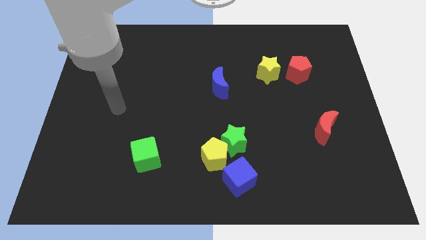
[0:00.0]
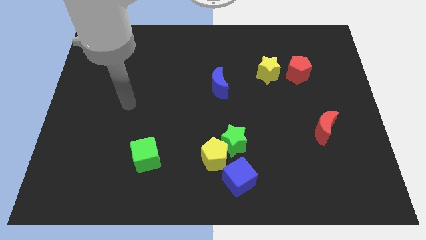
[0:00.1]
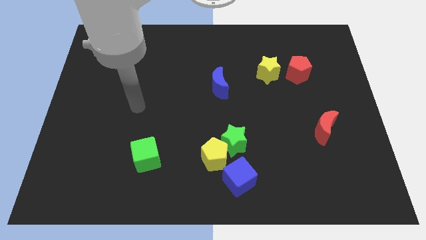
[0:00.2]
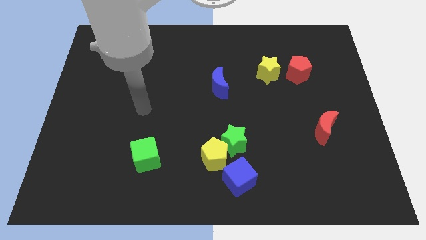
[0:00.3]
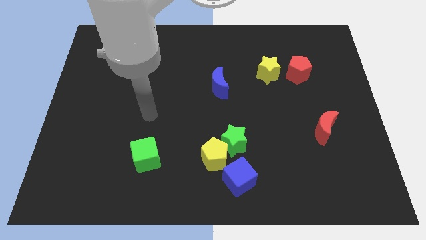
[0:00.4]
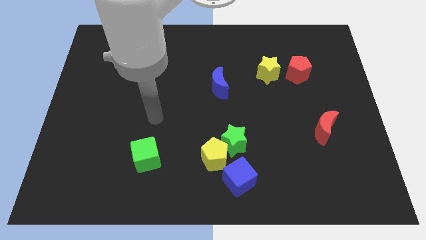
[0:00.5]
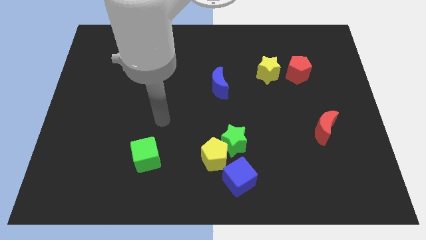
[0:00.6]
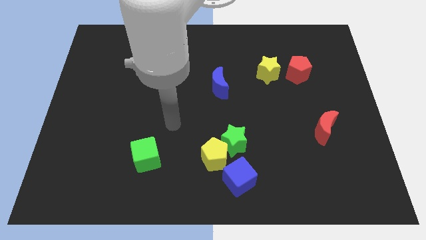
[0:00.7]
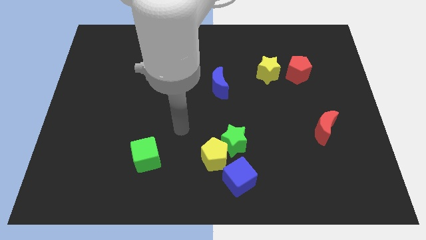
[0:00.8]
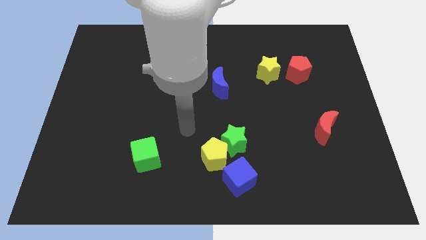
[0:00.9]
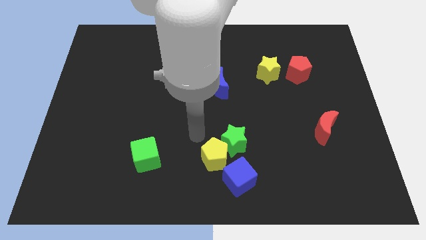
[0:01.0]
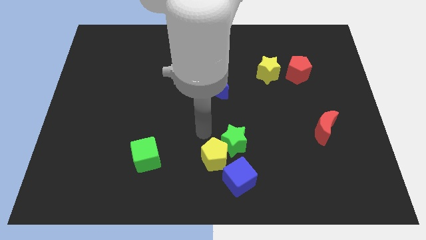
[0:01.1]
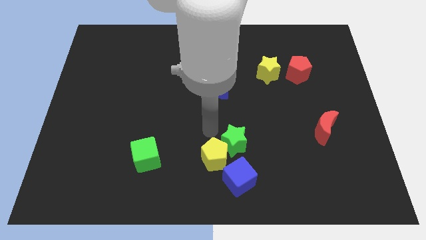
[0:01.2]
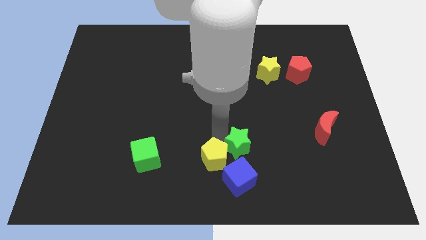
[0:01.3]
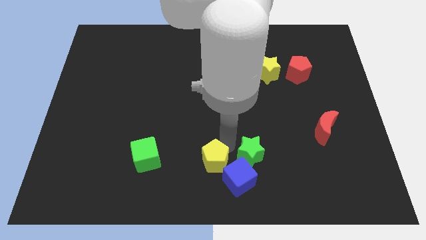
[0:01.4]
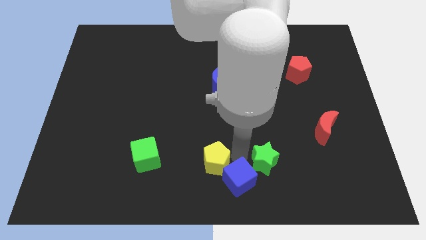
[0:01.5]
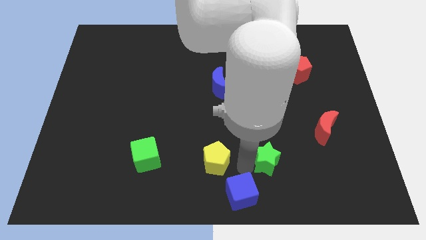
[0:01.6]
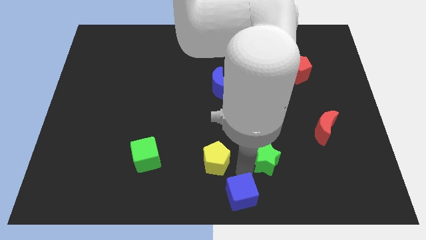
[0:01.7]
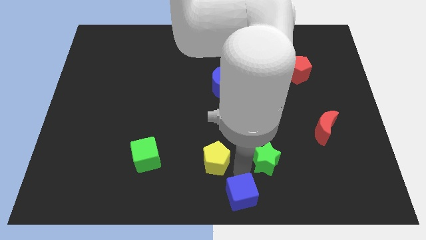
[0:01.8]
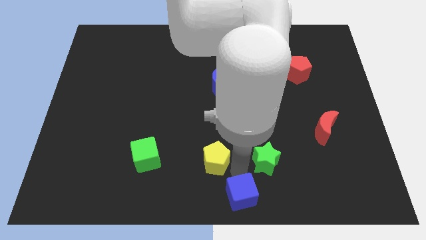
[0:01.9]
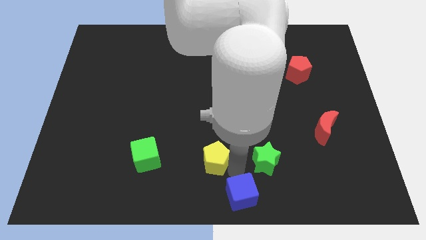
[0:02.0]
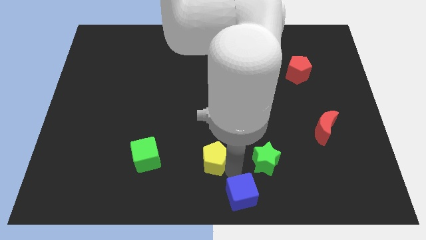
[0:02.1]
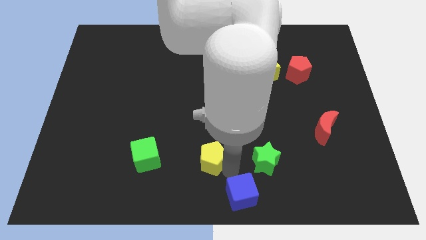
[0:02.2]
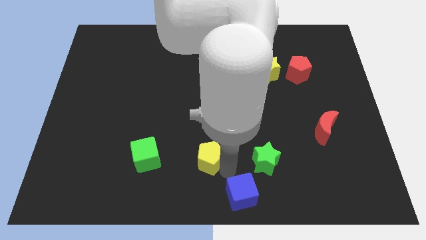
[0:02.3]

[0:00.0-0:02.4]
separate the yellow pentagon from the green star and blue cube

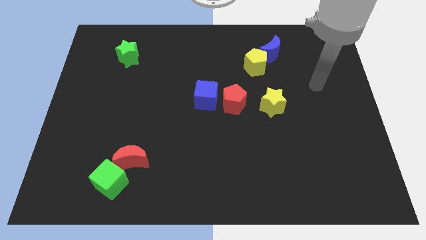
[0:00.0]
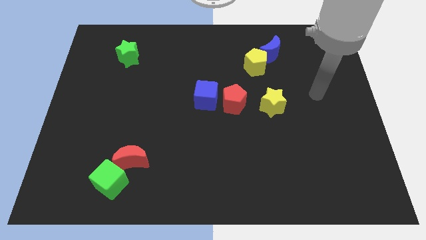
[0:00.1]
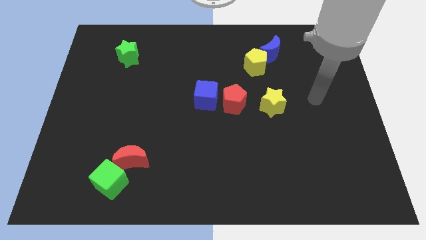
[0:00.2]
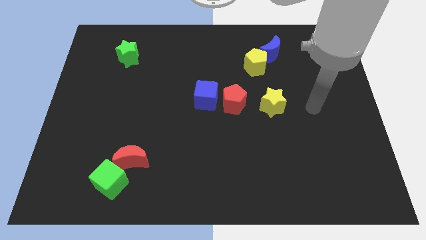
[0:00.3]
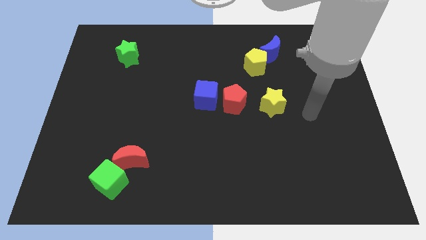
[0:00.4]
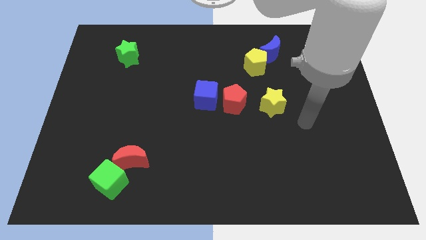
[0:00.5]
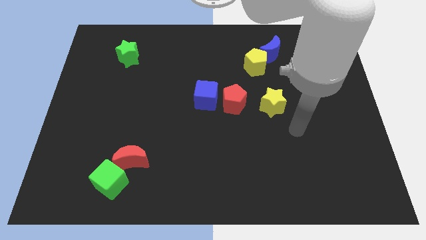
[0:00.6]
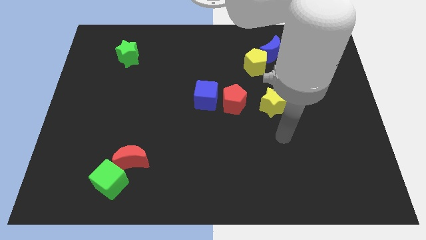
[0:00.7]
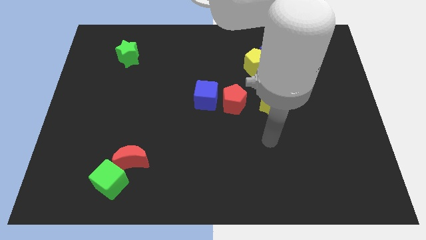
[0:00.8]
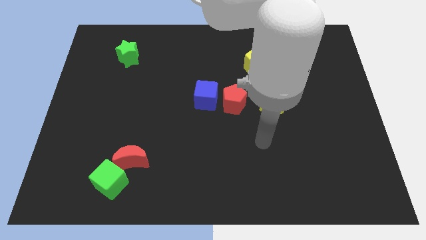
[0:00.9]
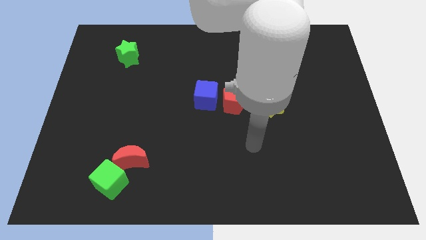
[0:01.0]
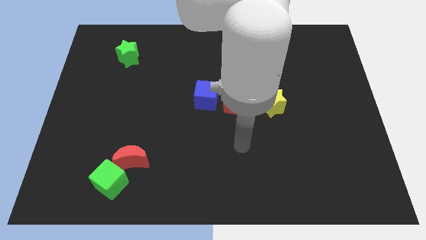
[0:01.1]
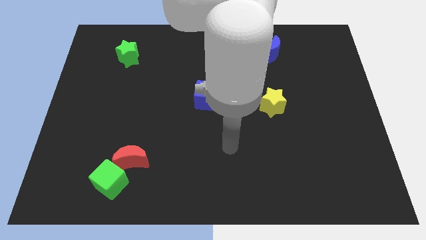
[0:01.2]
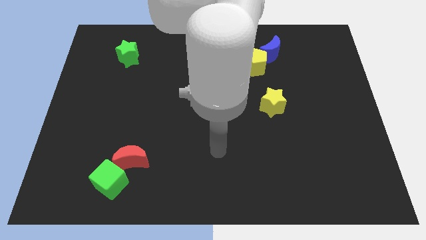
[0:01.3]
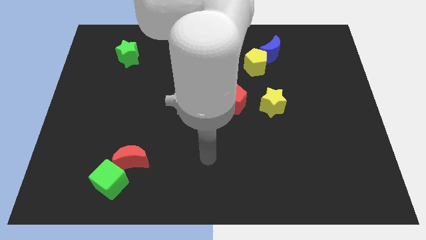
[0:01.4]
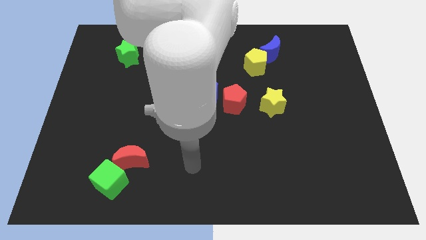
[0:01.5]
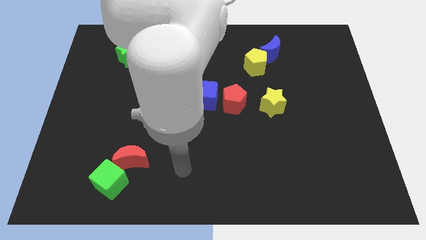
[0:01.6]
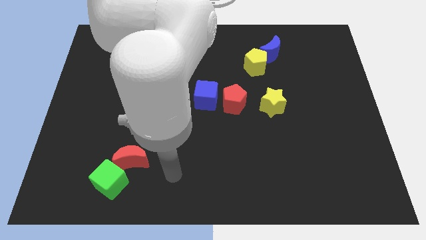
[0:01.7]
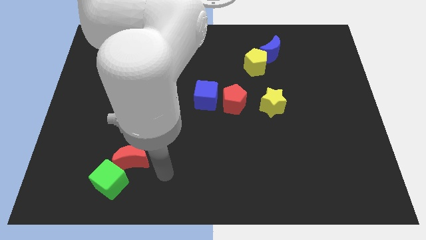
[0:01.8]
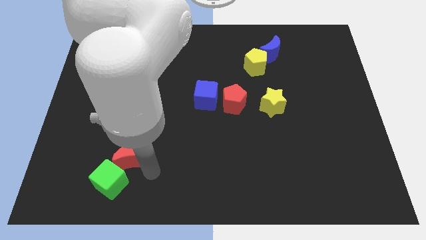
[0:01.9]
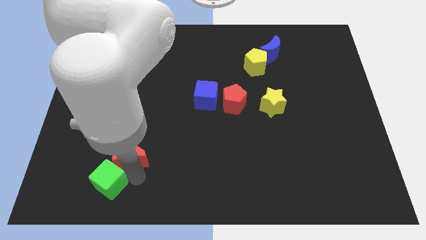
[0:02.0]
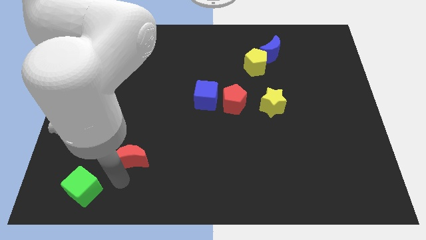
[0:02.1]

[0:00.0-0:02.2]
separate the red moon from the green cube

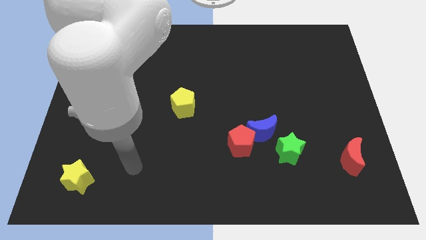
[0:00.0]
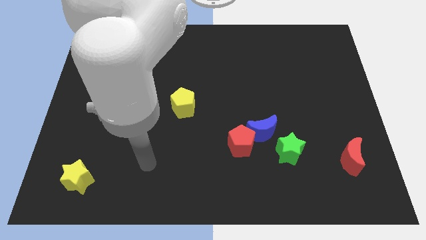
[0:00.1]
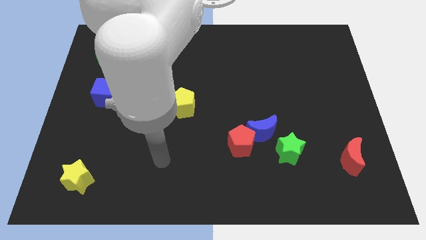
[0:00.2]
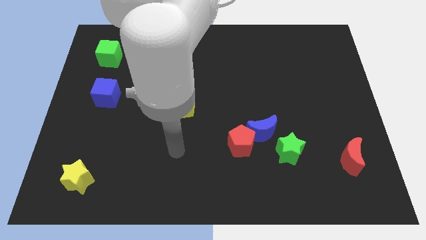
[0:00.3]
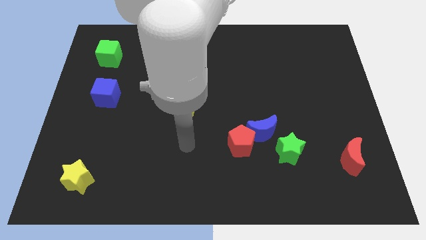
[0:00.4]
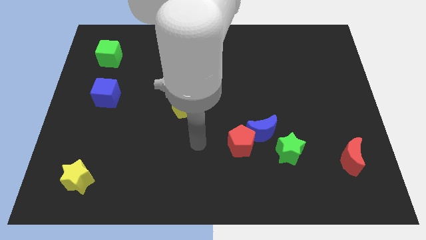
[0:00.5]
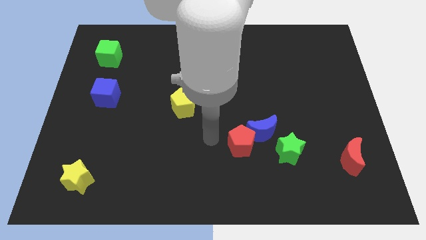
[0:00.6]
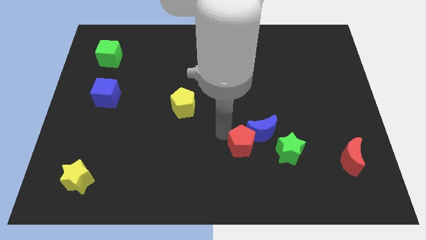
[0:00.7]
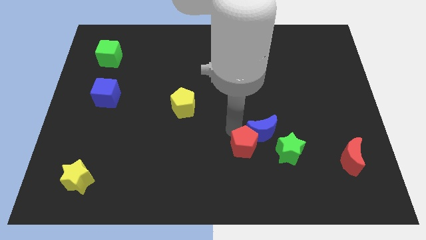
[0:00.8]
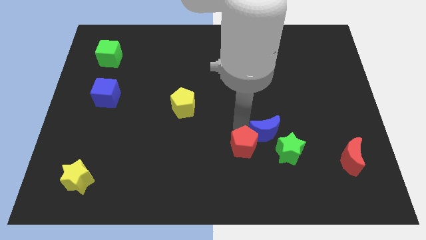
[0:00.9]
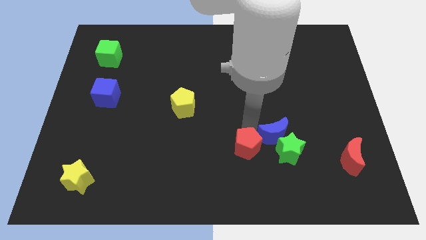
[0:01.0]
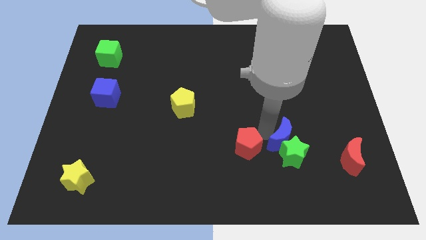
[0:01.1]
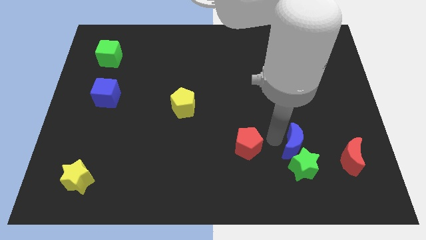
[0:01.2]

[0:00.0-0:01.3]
move the red pentagon away from the blue moon

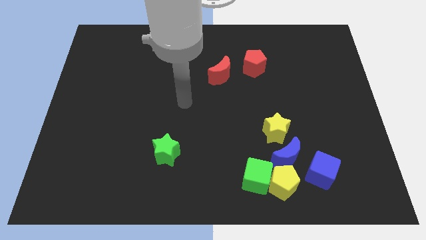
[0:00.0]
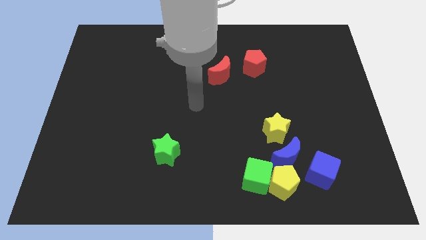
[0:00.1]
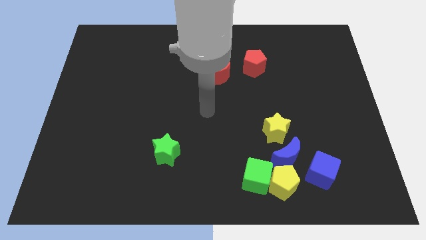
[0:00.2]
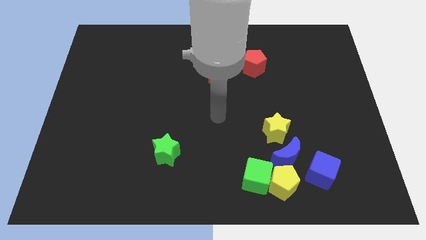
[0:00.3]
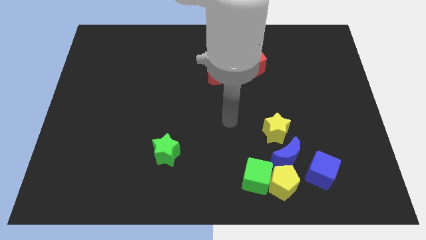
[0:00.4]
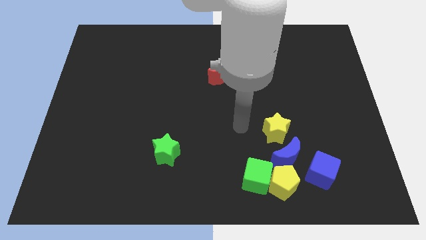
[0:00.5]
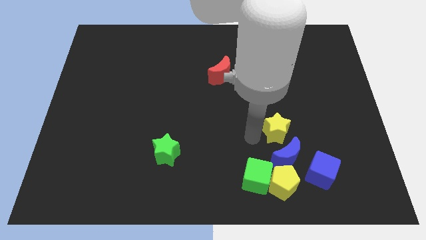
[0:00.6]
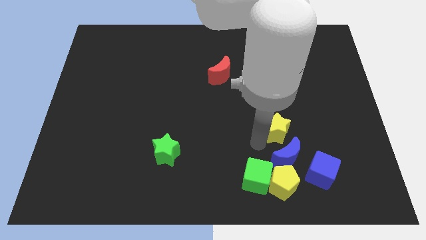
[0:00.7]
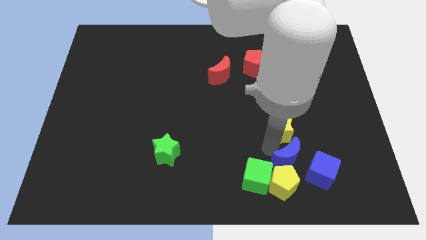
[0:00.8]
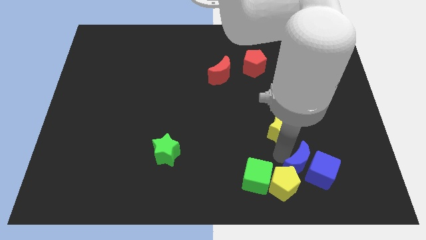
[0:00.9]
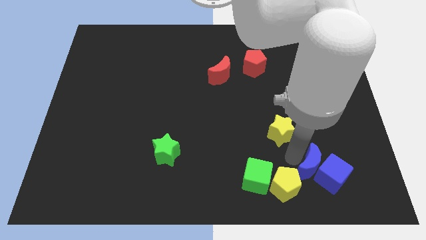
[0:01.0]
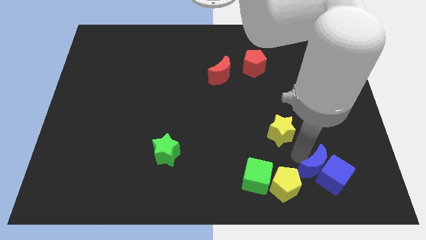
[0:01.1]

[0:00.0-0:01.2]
move the yellow star away from the blue moon

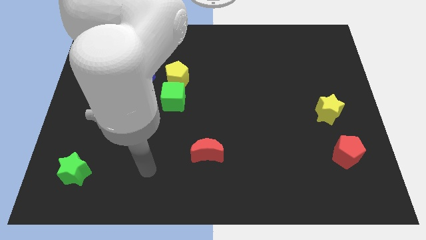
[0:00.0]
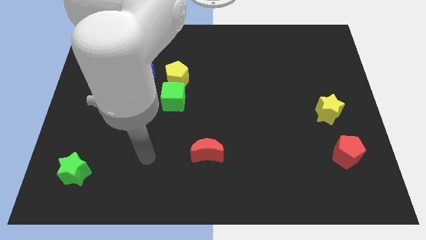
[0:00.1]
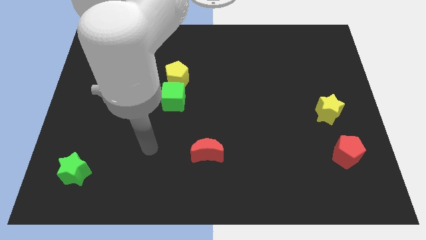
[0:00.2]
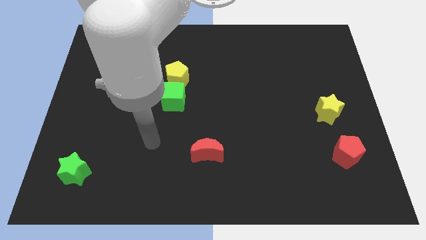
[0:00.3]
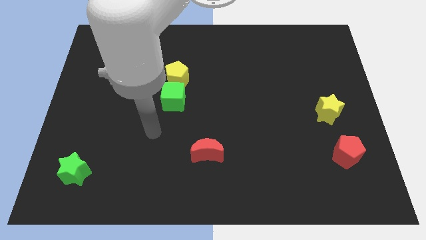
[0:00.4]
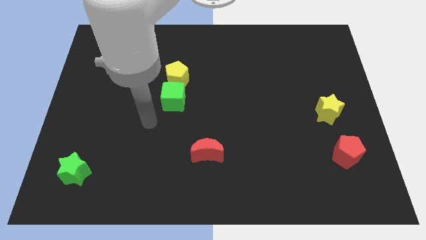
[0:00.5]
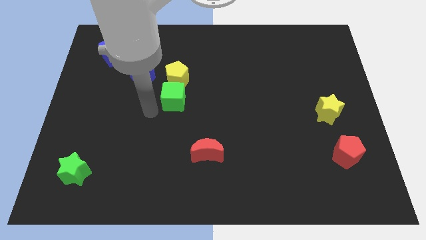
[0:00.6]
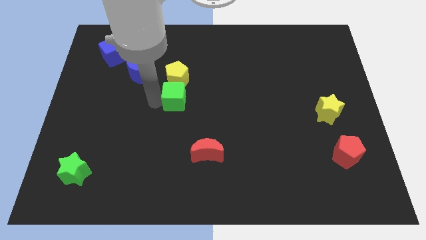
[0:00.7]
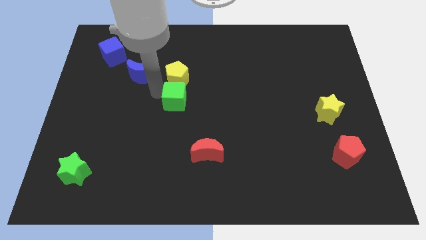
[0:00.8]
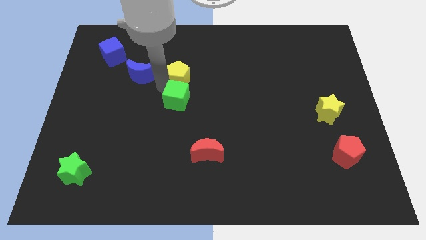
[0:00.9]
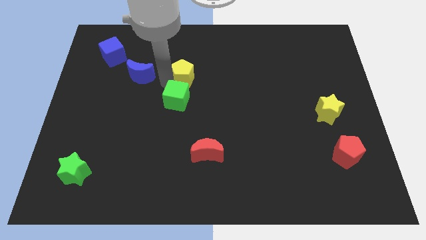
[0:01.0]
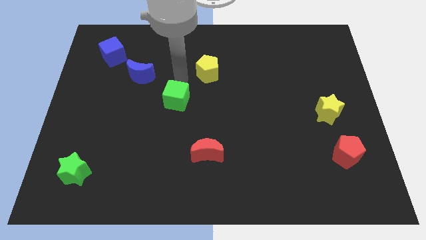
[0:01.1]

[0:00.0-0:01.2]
pull the green cube apart from the yellow pentagon

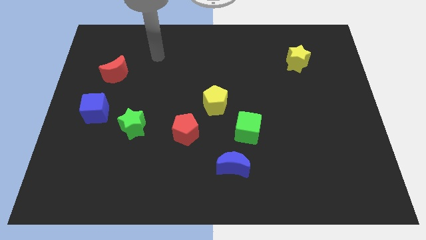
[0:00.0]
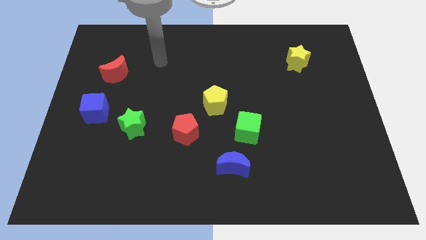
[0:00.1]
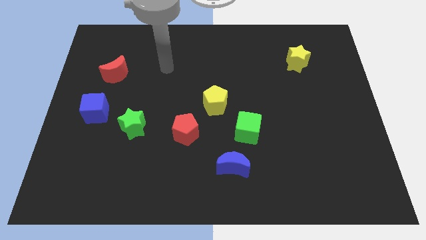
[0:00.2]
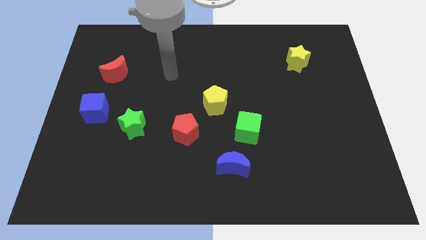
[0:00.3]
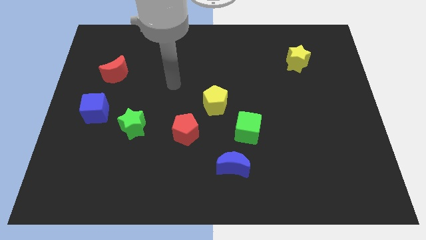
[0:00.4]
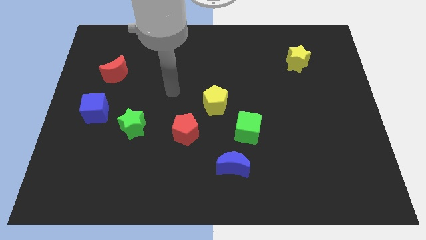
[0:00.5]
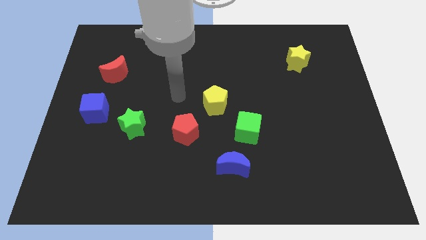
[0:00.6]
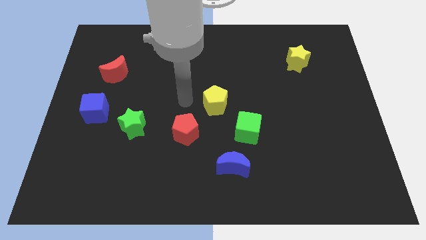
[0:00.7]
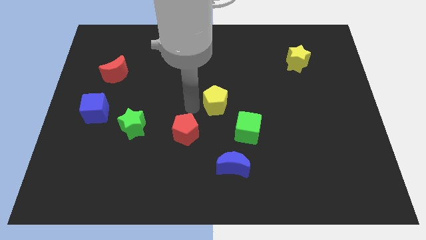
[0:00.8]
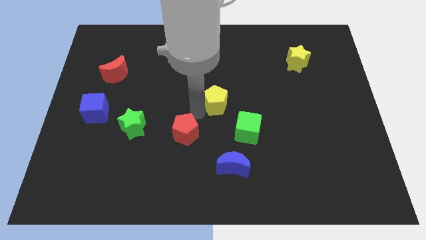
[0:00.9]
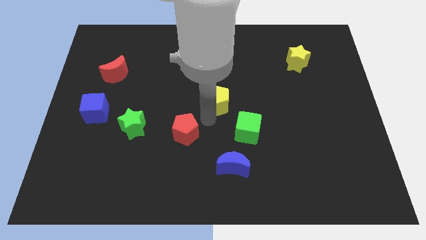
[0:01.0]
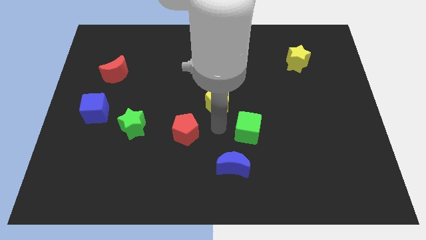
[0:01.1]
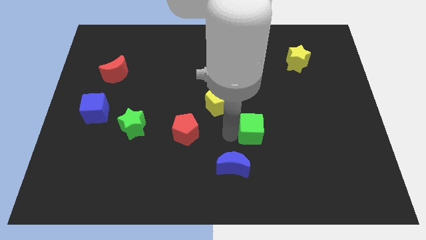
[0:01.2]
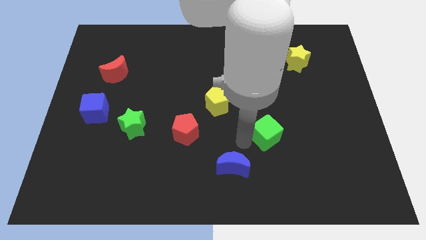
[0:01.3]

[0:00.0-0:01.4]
separate the blue moon from the green cube
